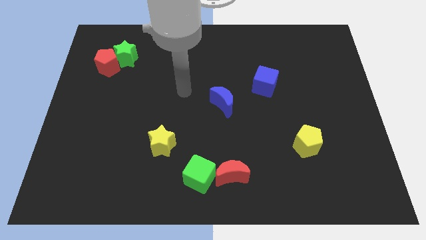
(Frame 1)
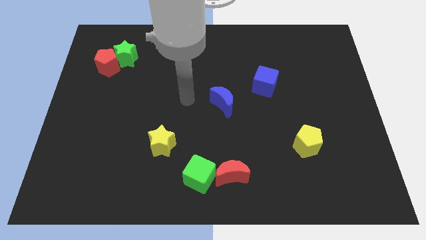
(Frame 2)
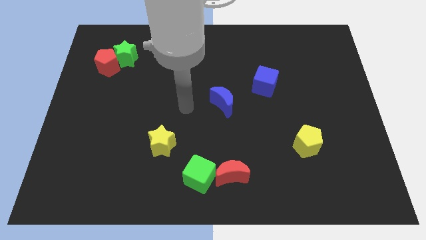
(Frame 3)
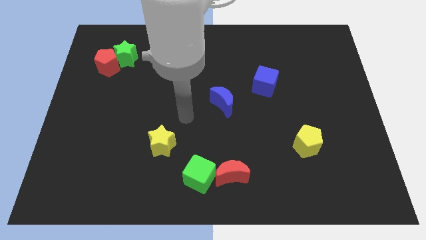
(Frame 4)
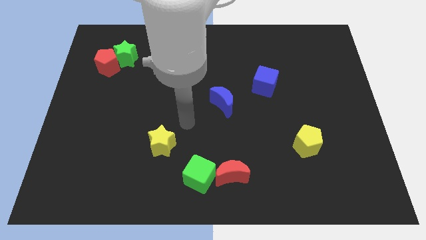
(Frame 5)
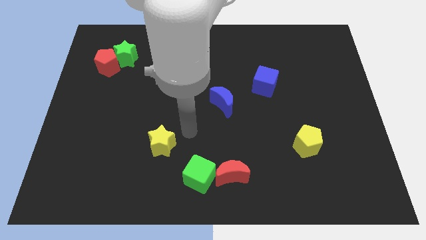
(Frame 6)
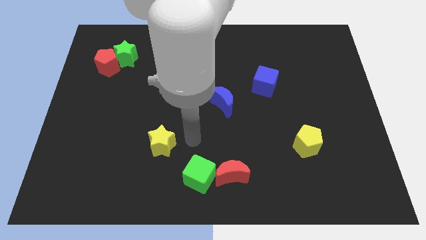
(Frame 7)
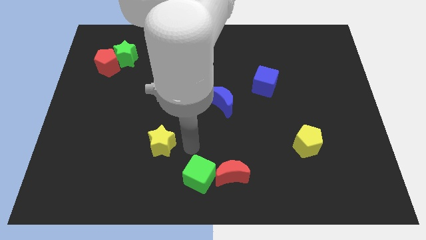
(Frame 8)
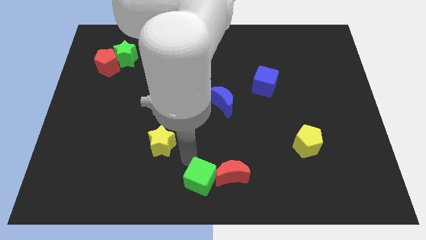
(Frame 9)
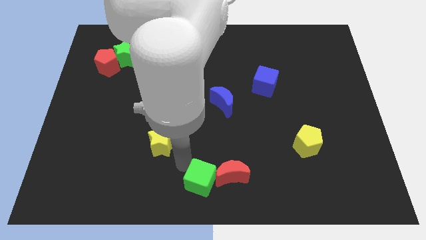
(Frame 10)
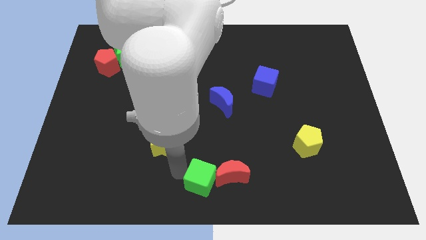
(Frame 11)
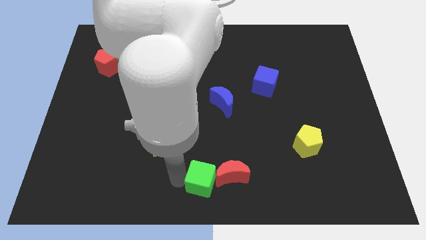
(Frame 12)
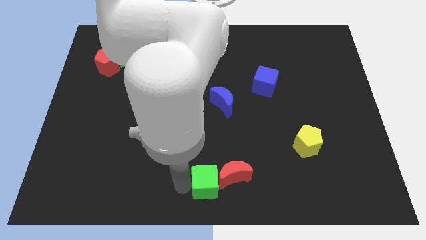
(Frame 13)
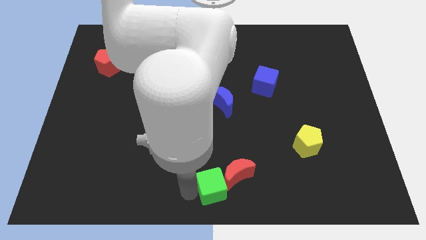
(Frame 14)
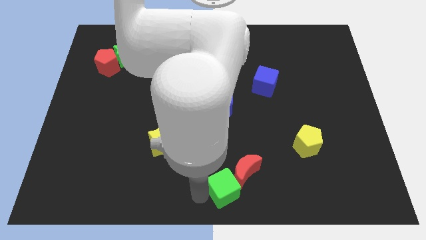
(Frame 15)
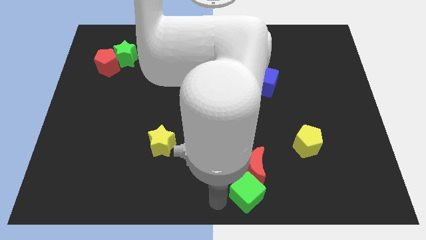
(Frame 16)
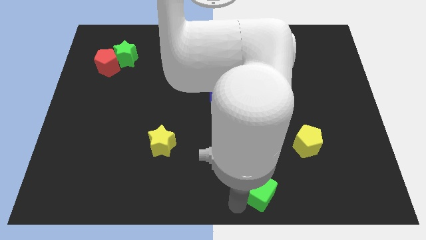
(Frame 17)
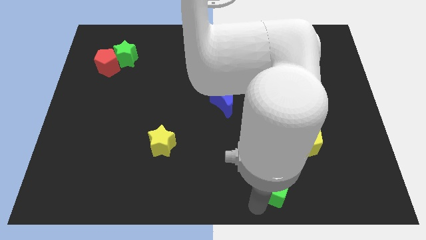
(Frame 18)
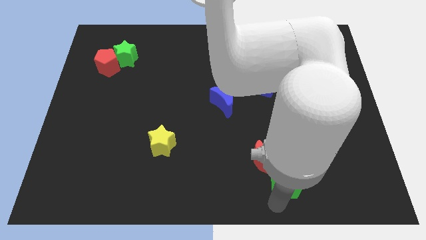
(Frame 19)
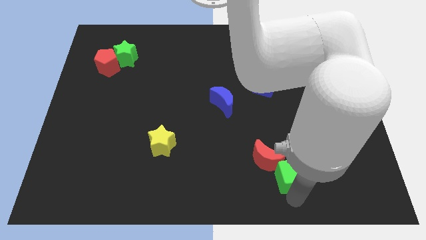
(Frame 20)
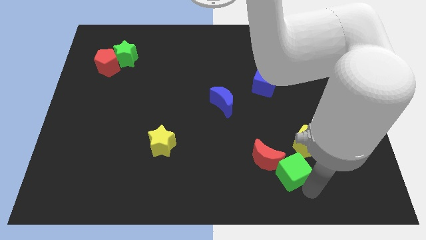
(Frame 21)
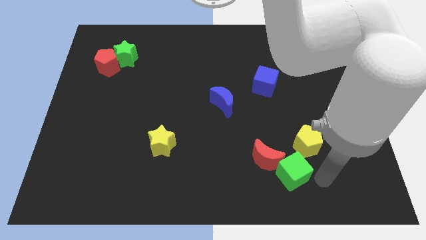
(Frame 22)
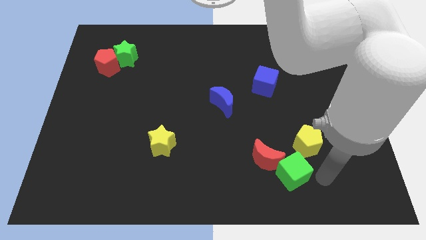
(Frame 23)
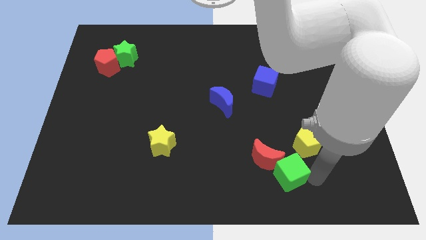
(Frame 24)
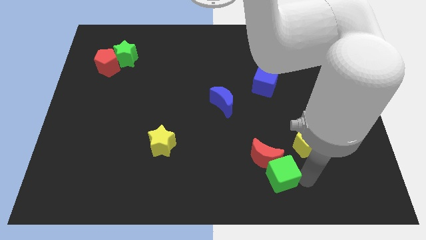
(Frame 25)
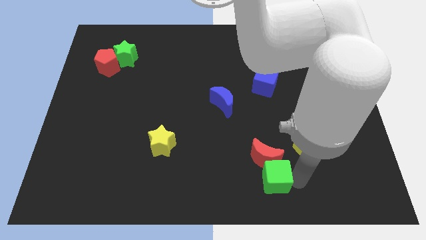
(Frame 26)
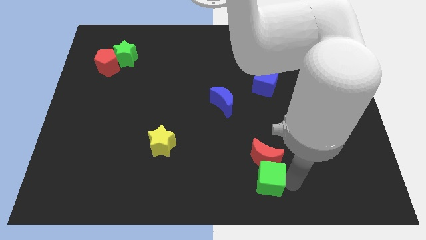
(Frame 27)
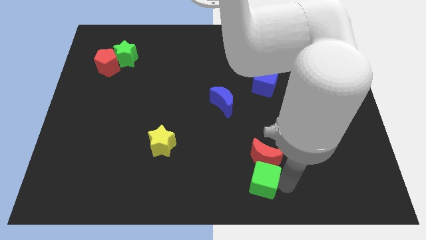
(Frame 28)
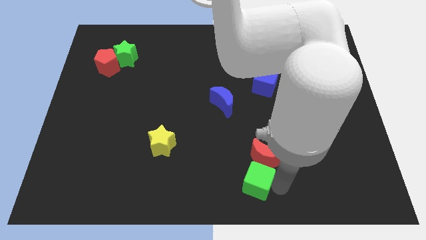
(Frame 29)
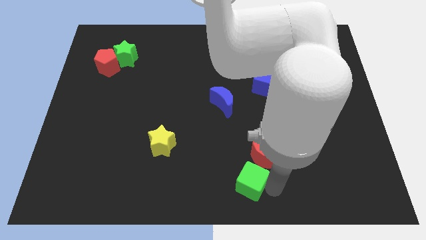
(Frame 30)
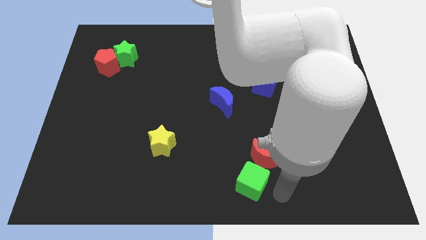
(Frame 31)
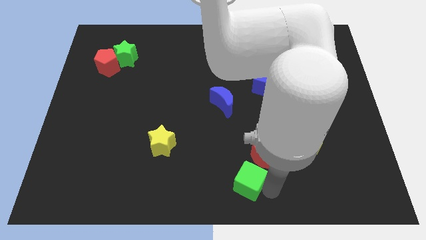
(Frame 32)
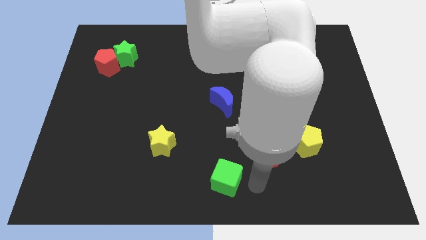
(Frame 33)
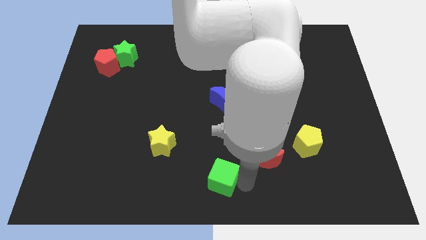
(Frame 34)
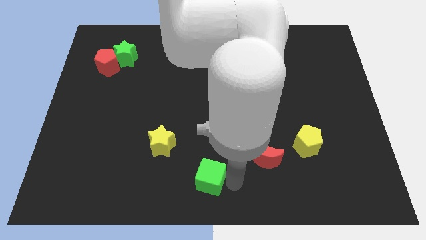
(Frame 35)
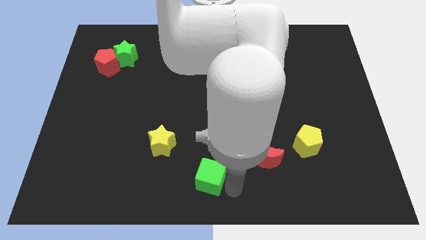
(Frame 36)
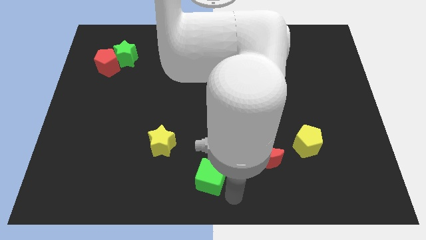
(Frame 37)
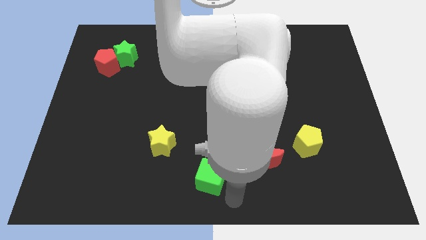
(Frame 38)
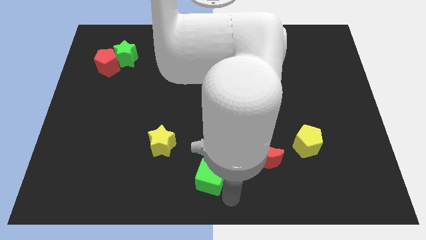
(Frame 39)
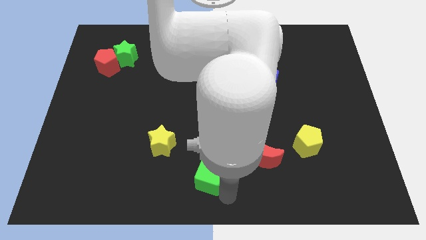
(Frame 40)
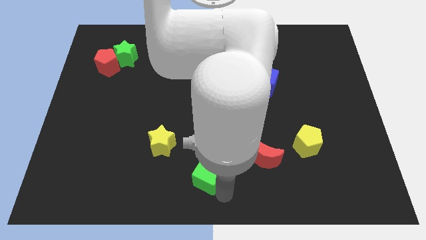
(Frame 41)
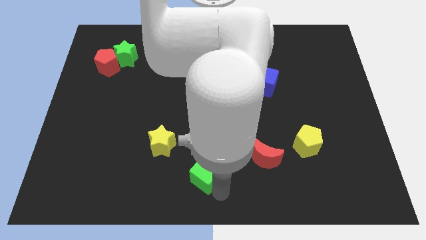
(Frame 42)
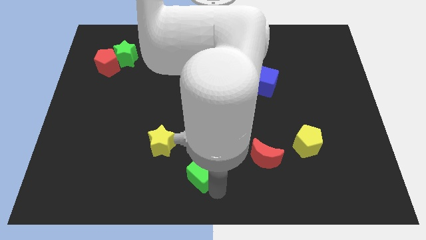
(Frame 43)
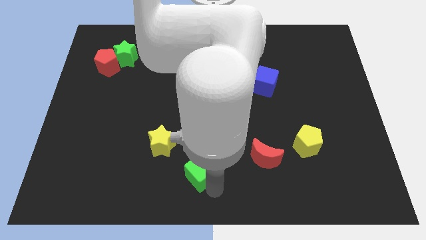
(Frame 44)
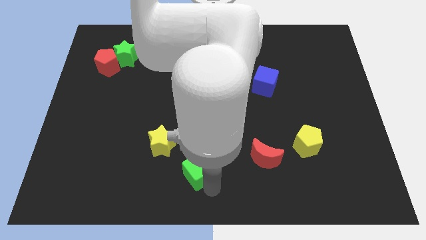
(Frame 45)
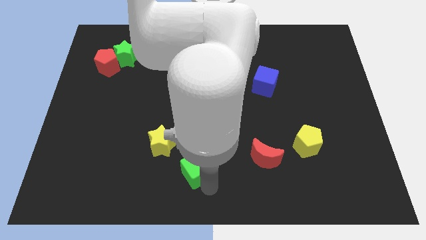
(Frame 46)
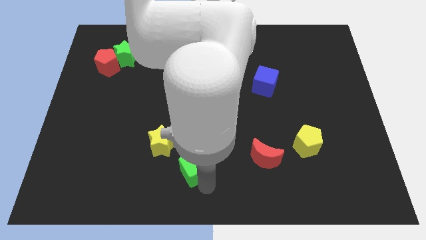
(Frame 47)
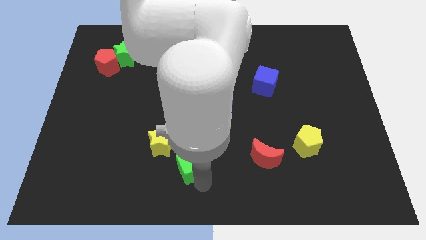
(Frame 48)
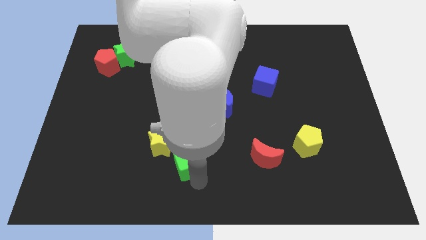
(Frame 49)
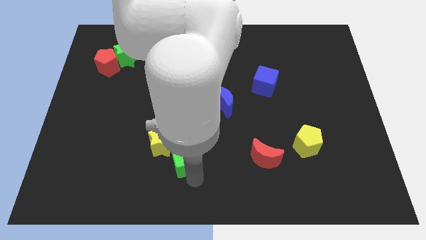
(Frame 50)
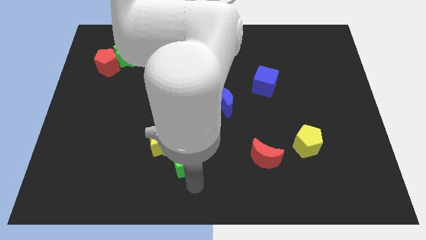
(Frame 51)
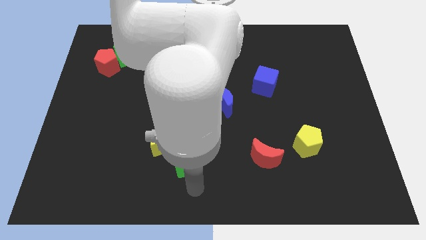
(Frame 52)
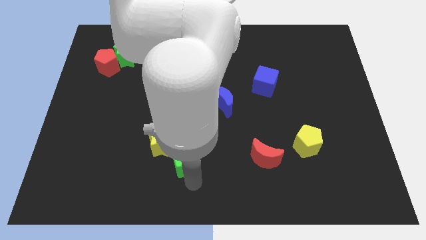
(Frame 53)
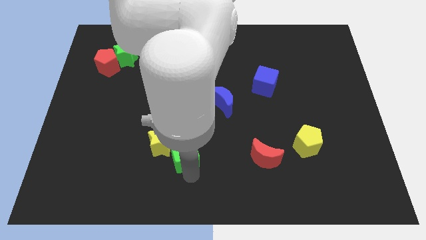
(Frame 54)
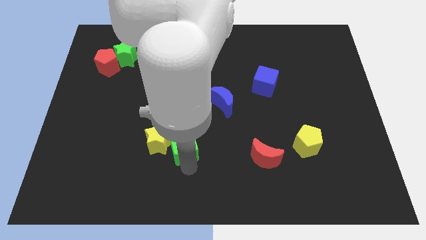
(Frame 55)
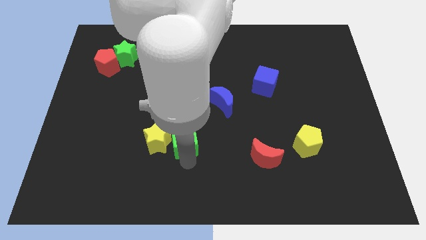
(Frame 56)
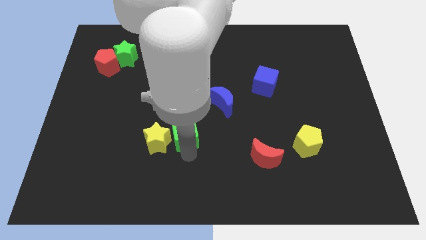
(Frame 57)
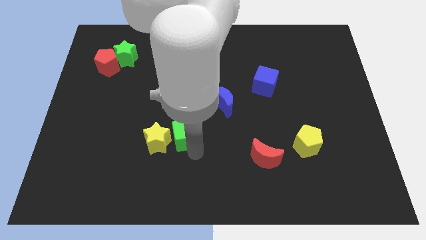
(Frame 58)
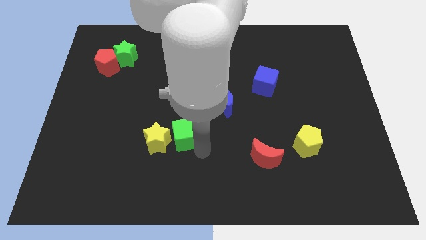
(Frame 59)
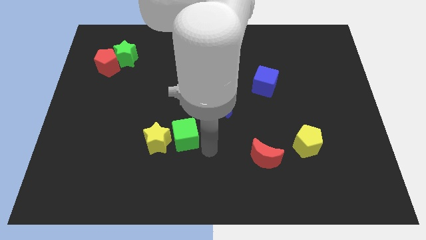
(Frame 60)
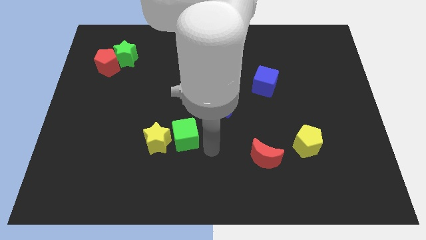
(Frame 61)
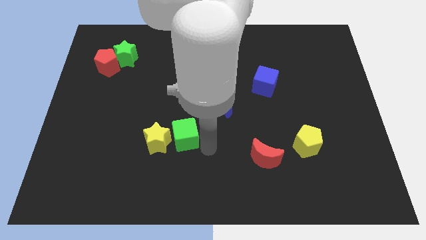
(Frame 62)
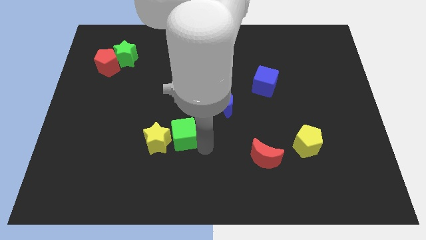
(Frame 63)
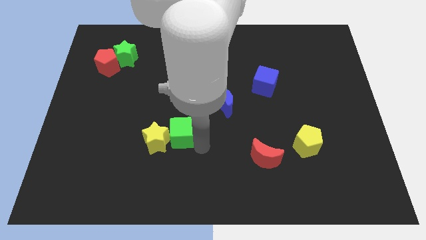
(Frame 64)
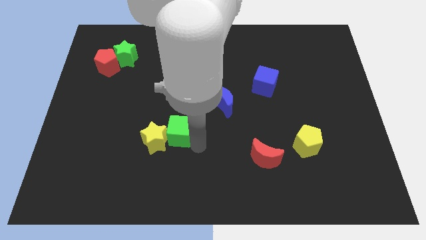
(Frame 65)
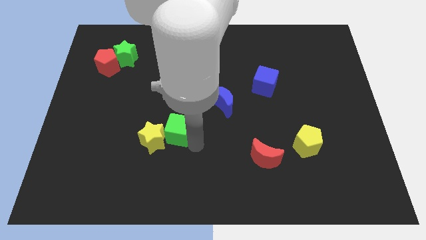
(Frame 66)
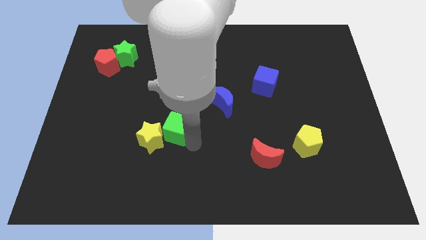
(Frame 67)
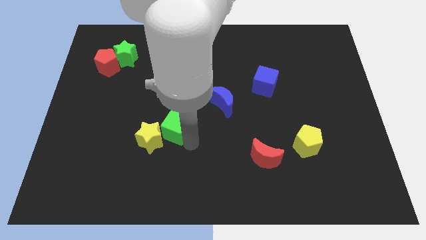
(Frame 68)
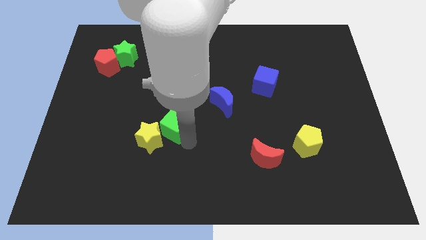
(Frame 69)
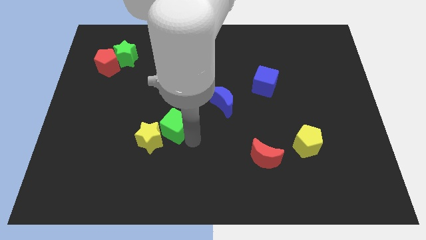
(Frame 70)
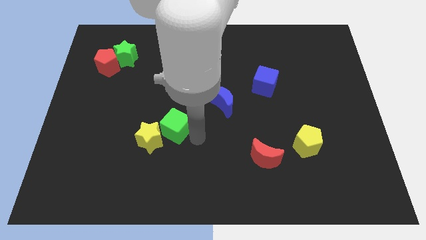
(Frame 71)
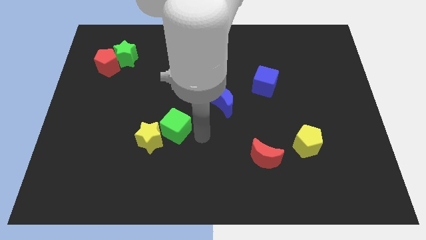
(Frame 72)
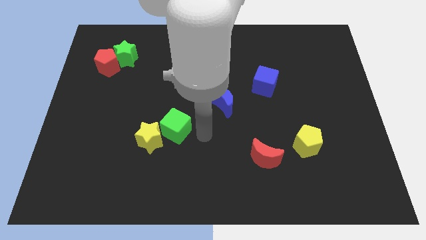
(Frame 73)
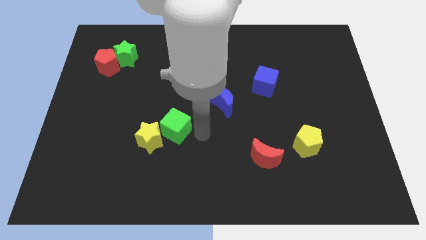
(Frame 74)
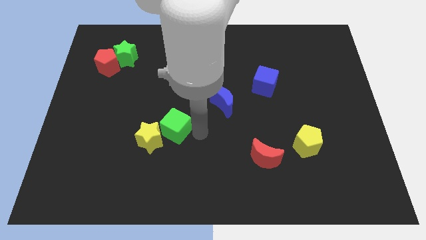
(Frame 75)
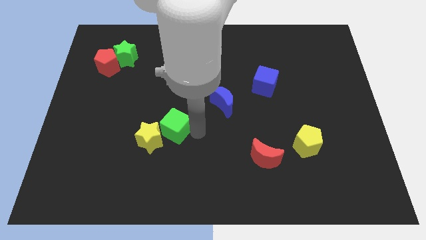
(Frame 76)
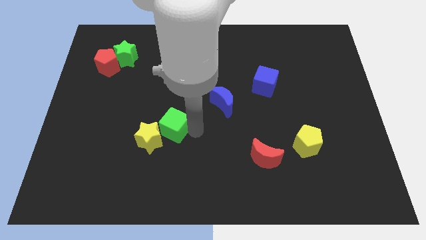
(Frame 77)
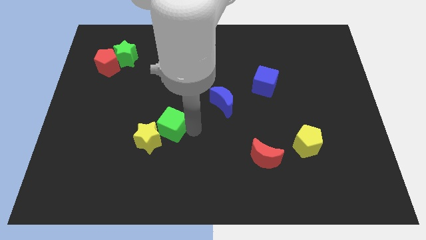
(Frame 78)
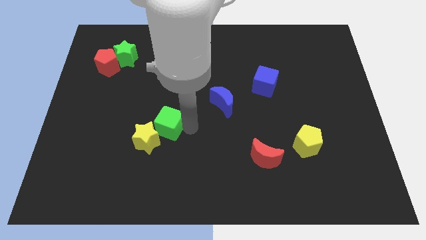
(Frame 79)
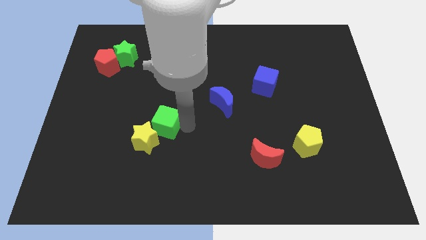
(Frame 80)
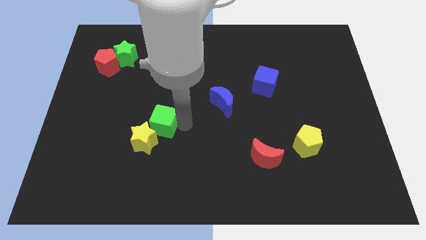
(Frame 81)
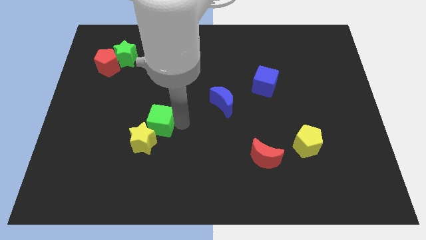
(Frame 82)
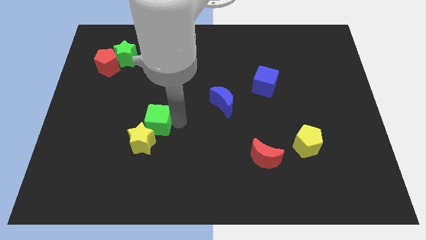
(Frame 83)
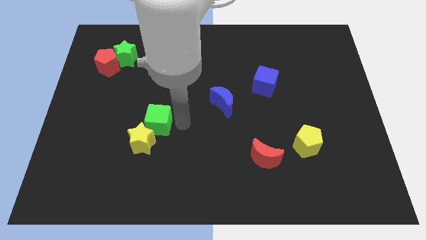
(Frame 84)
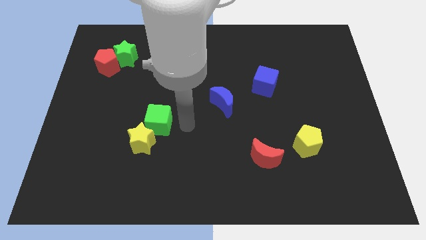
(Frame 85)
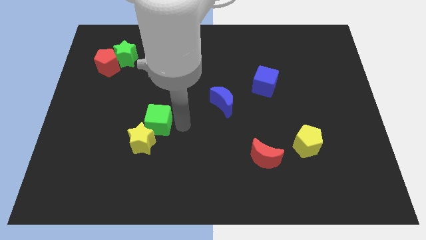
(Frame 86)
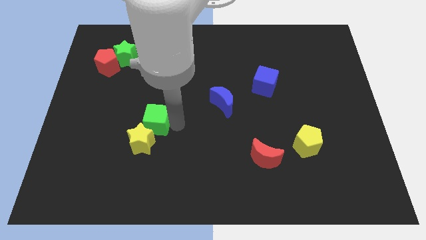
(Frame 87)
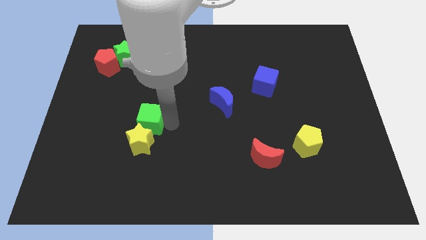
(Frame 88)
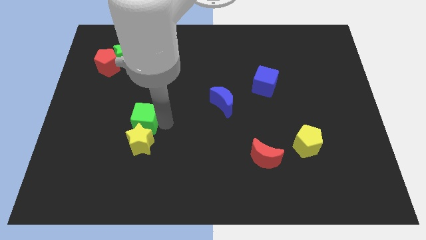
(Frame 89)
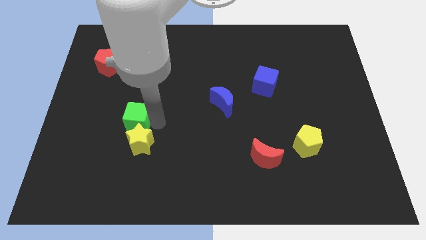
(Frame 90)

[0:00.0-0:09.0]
slide the green cube diagonally upwards and left
